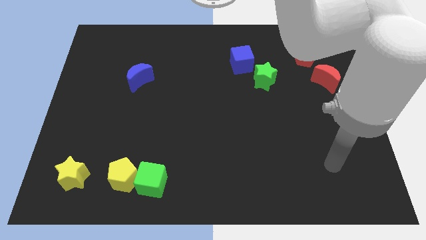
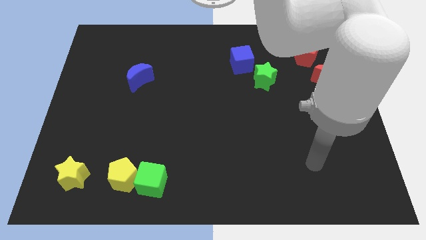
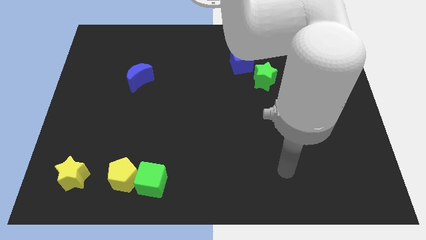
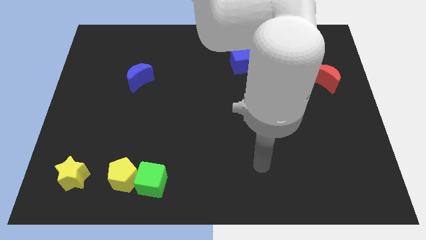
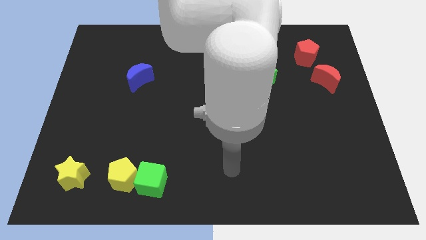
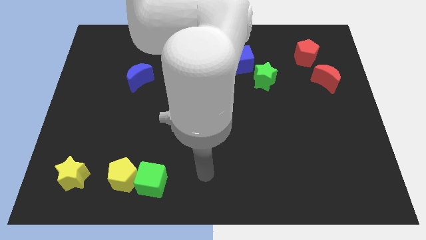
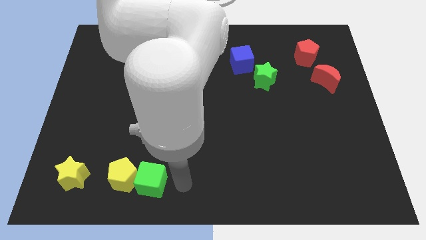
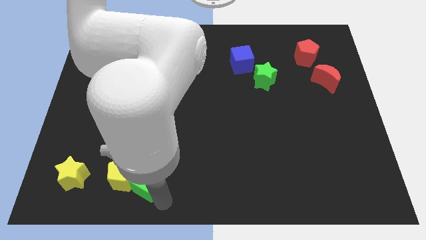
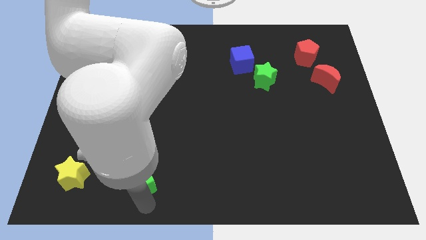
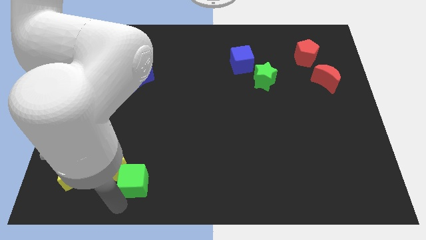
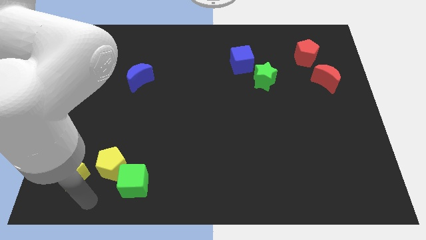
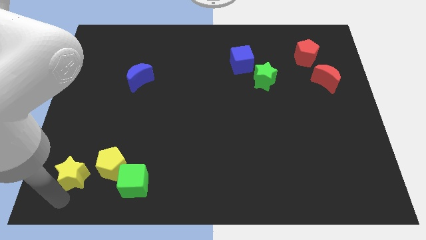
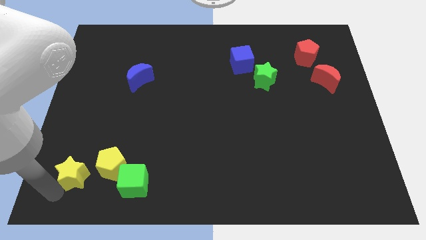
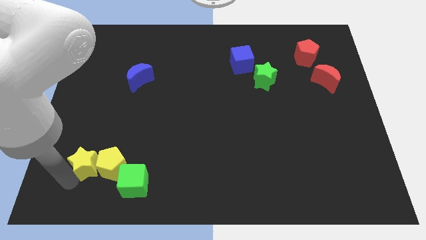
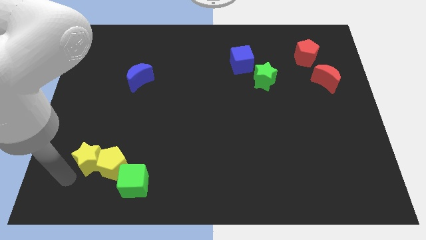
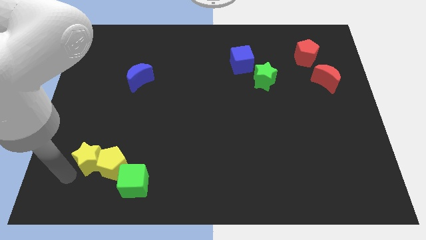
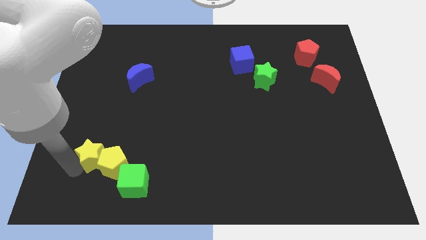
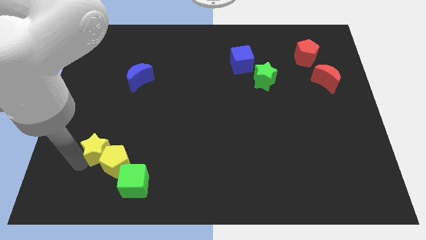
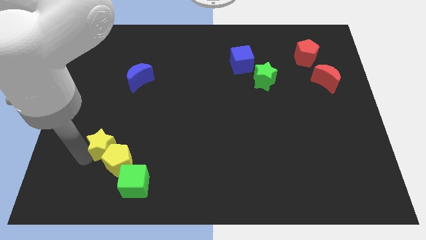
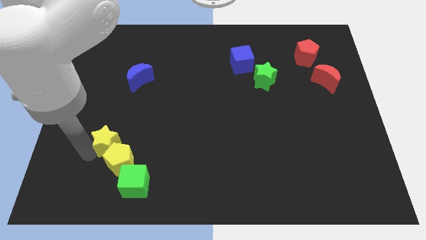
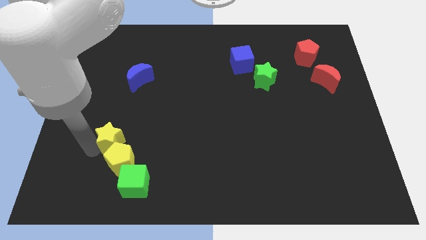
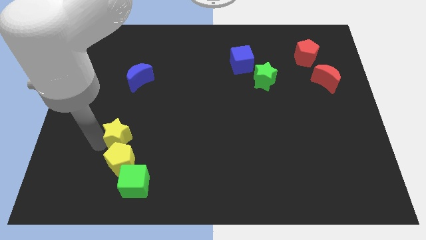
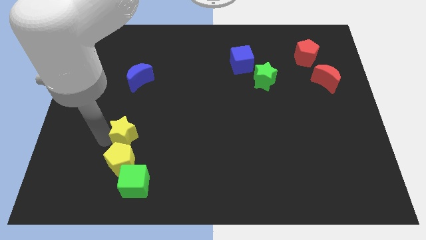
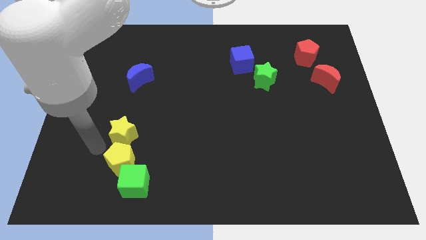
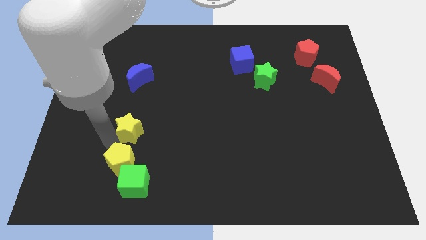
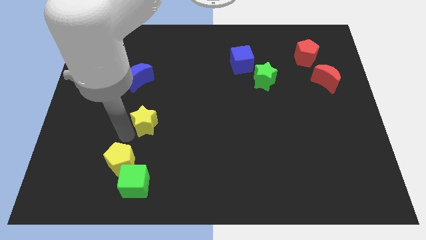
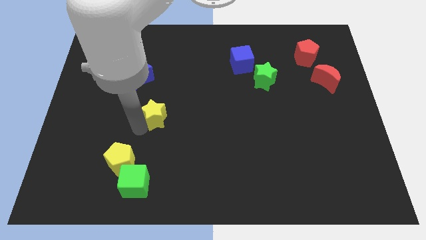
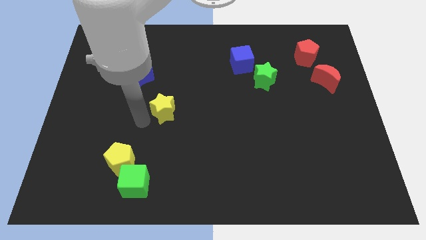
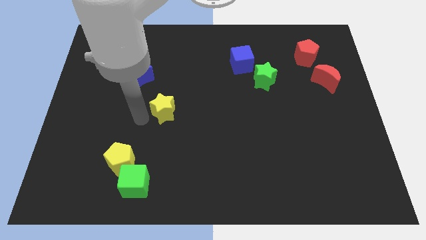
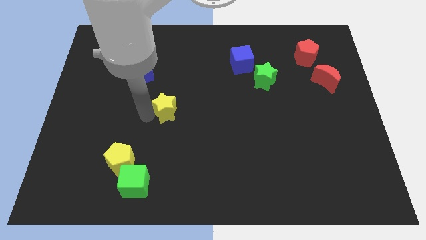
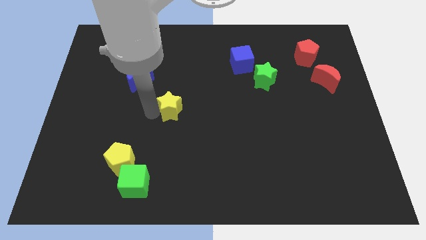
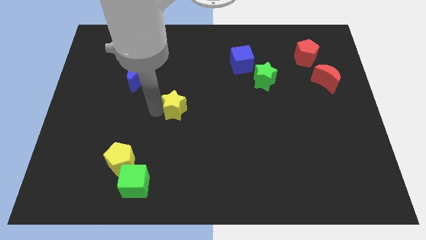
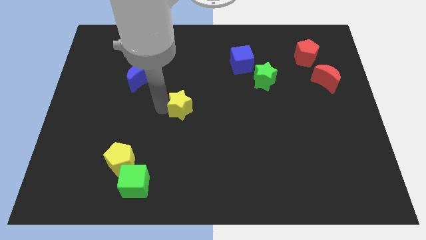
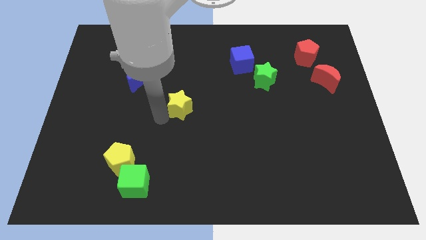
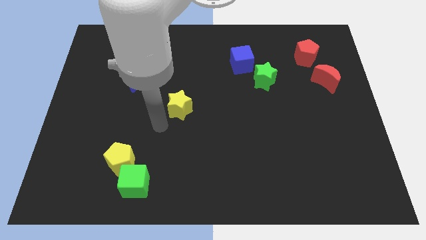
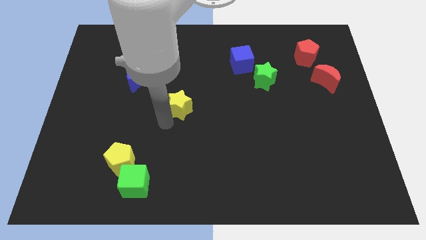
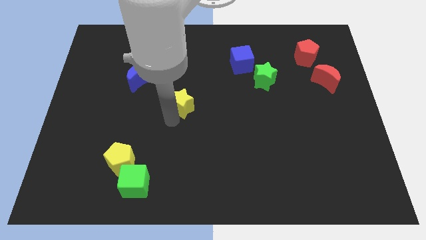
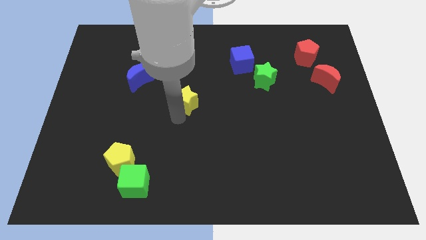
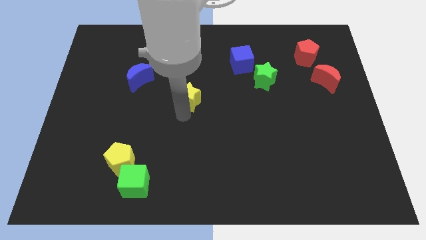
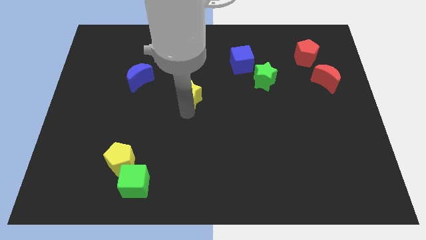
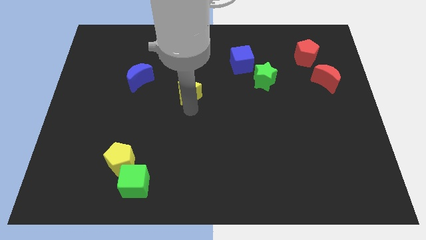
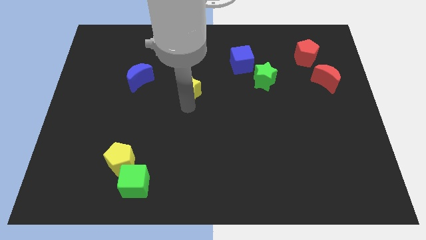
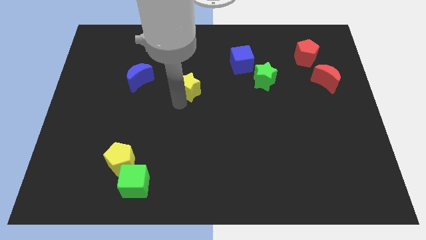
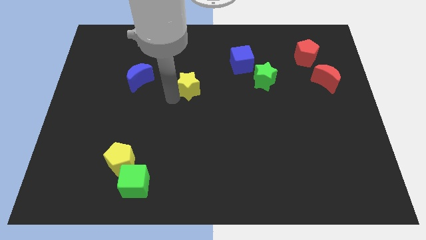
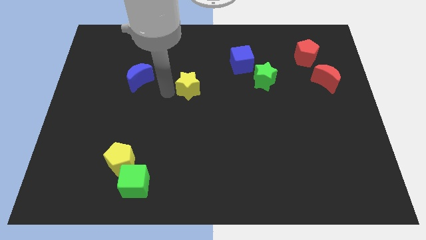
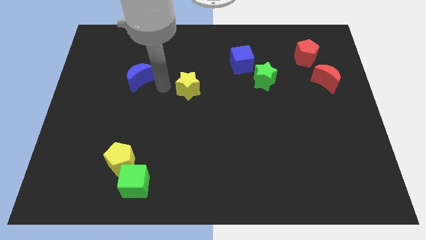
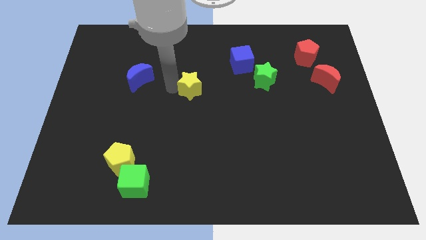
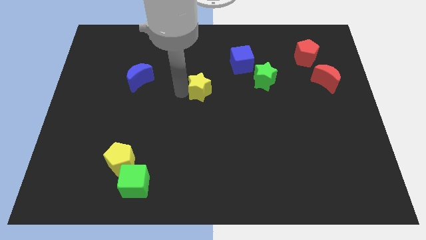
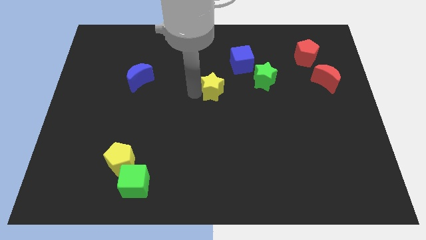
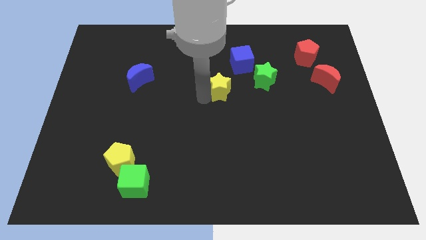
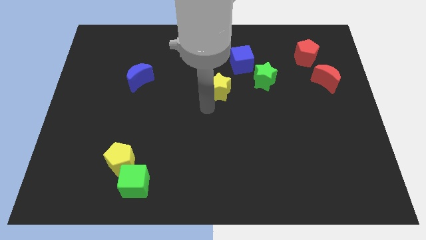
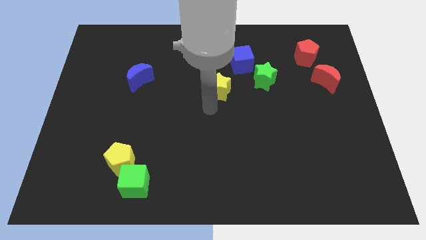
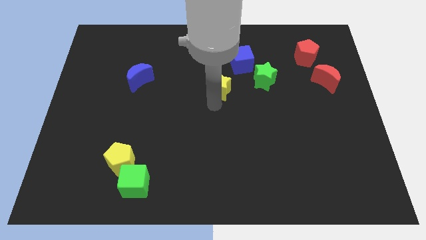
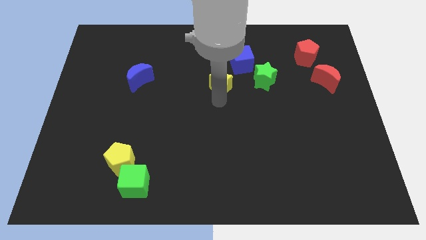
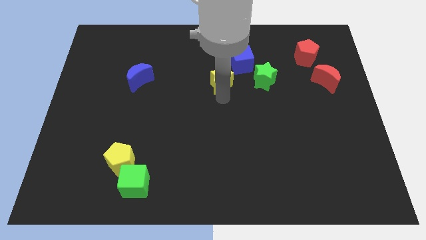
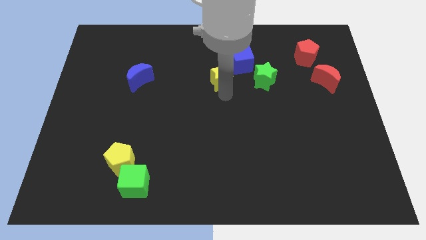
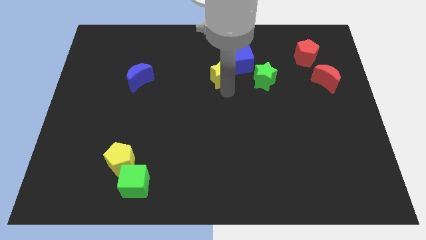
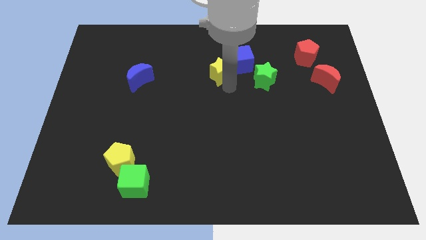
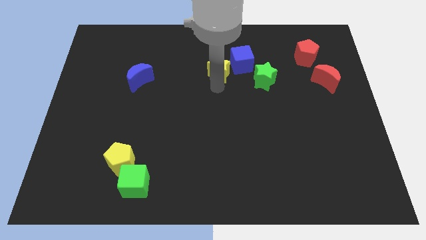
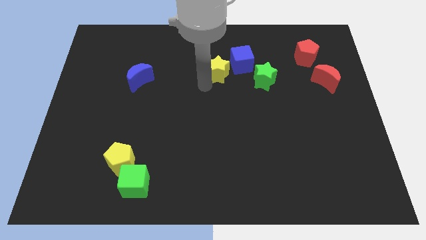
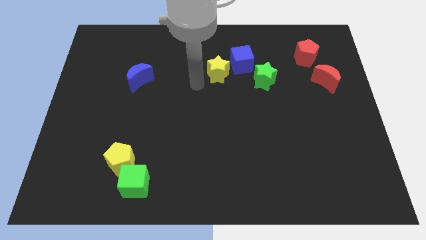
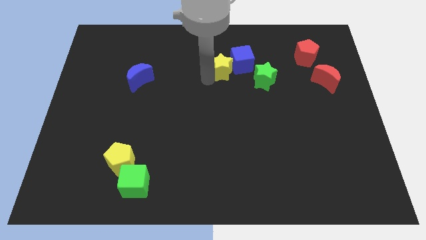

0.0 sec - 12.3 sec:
put the yellow star to the blue cube
